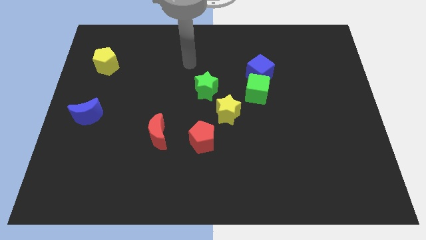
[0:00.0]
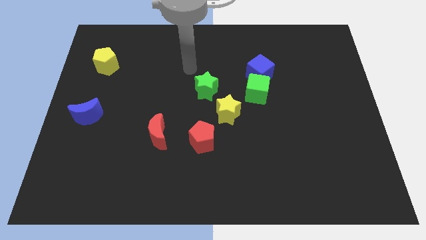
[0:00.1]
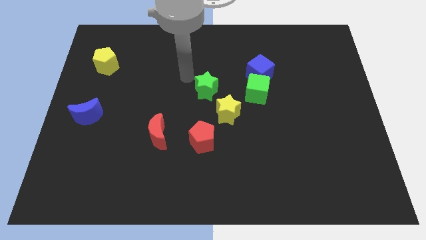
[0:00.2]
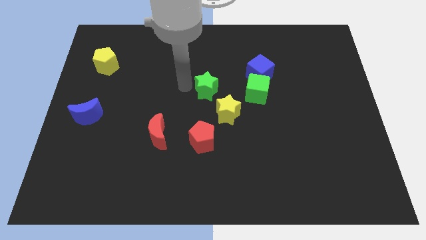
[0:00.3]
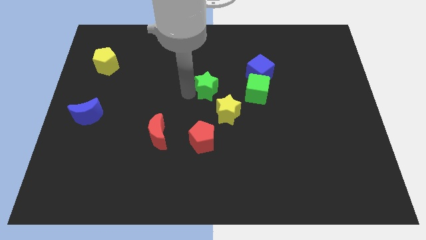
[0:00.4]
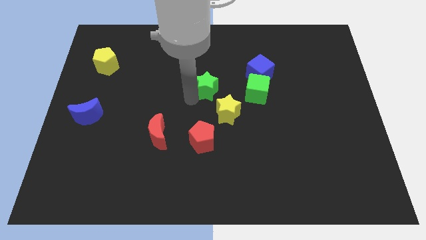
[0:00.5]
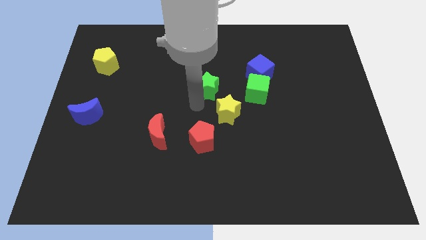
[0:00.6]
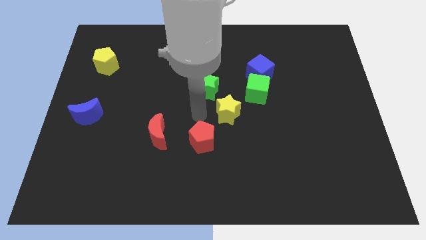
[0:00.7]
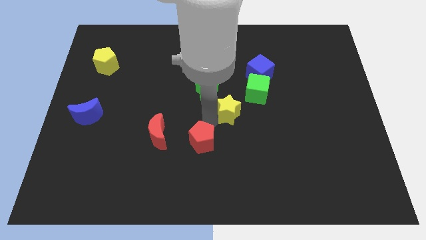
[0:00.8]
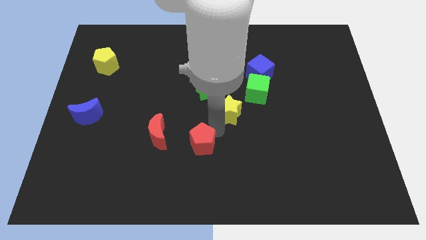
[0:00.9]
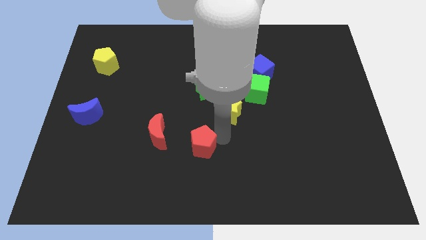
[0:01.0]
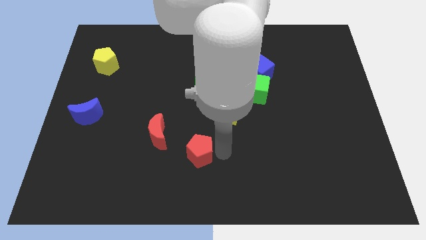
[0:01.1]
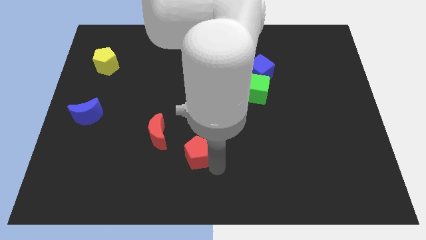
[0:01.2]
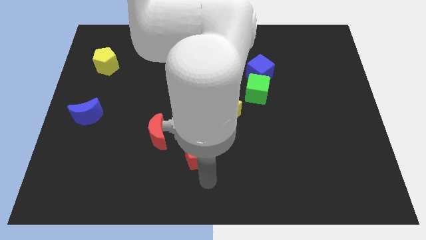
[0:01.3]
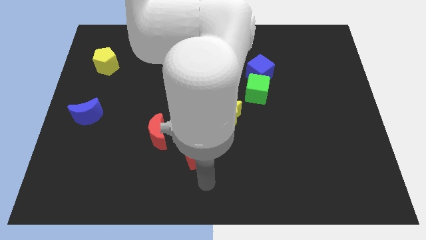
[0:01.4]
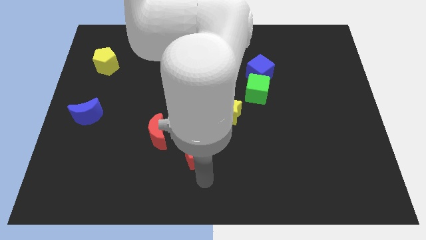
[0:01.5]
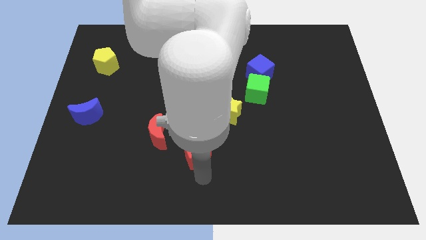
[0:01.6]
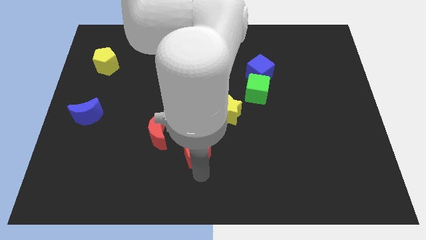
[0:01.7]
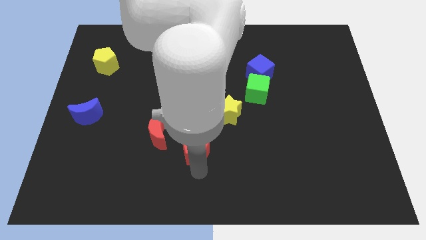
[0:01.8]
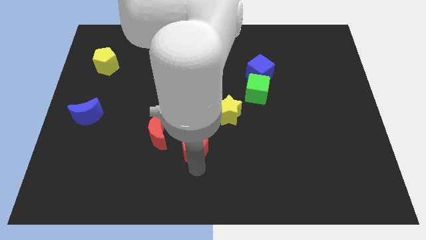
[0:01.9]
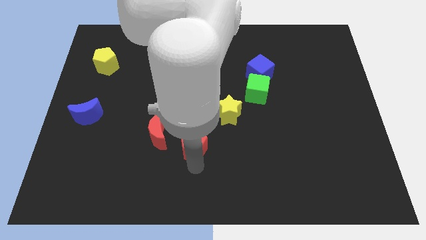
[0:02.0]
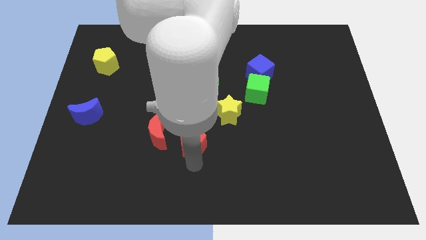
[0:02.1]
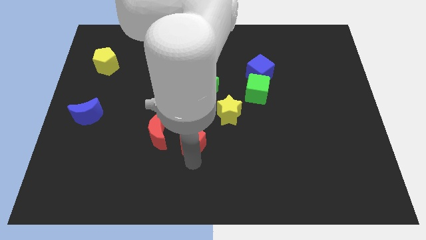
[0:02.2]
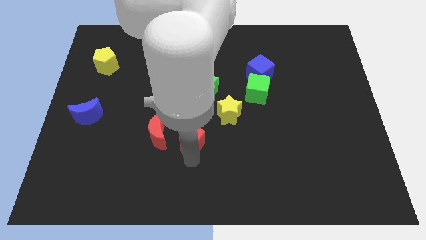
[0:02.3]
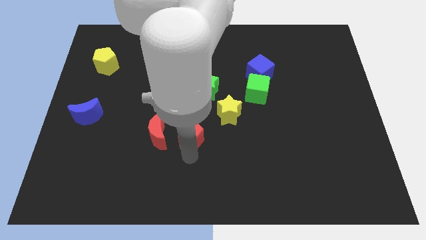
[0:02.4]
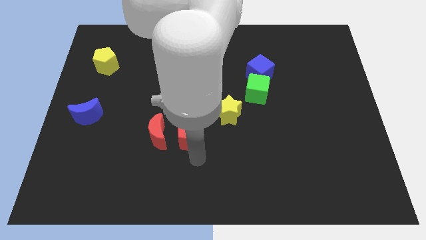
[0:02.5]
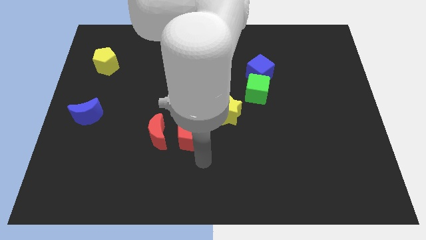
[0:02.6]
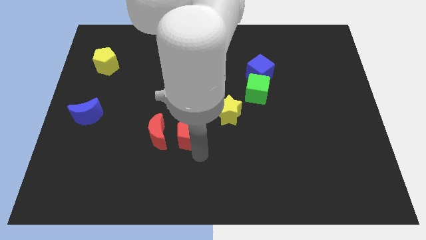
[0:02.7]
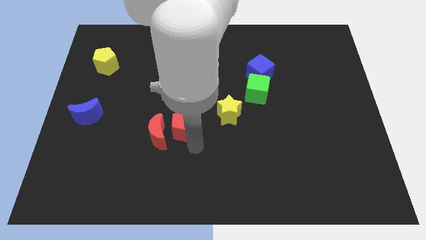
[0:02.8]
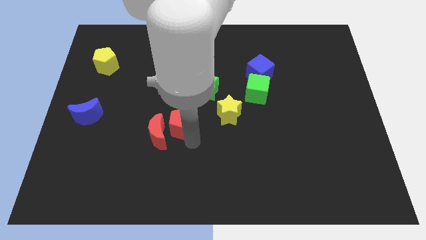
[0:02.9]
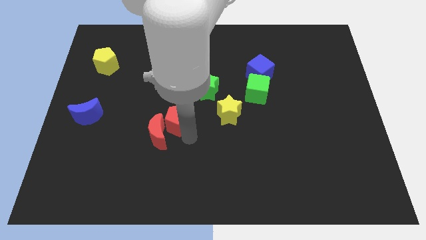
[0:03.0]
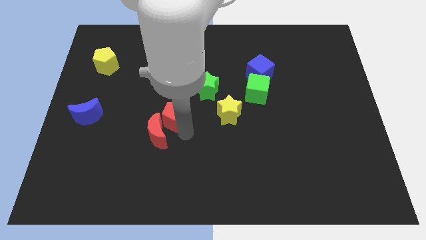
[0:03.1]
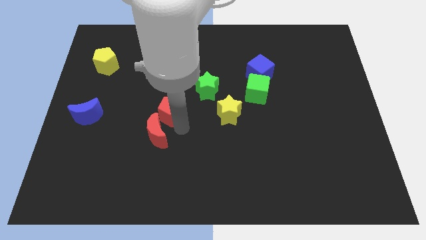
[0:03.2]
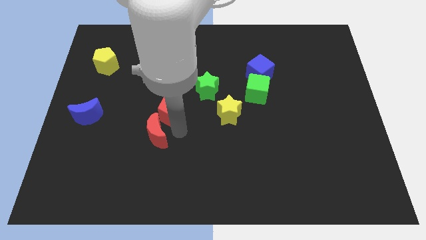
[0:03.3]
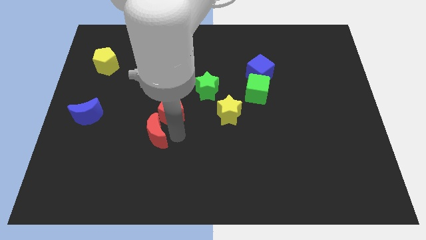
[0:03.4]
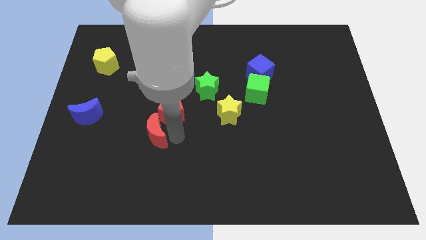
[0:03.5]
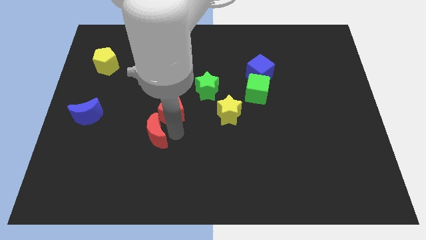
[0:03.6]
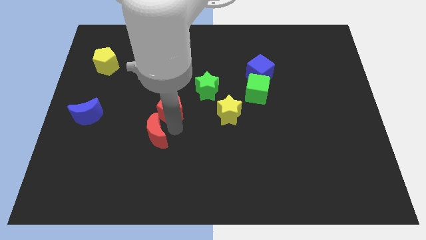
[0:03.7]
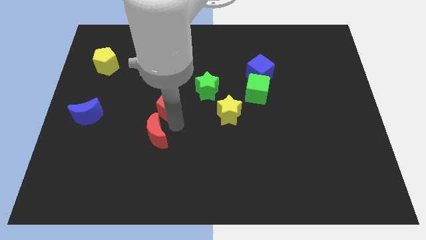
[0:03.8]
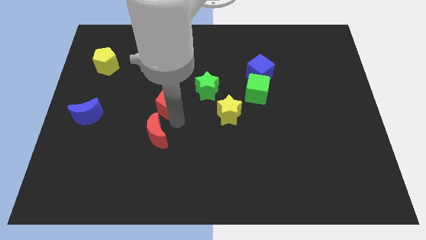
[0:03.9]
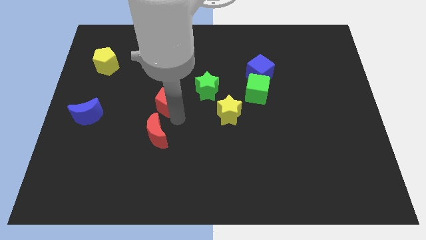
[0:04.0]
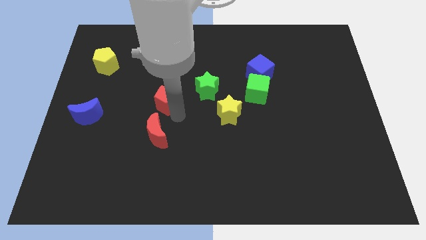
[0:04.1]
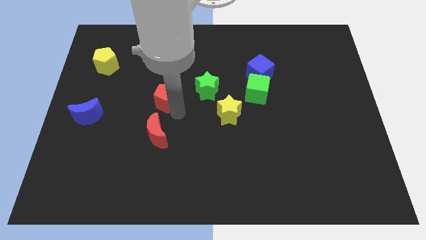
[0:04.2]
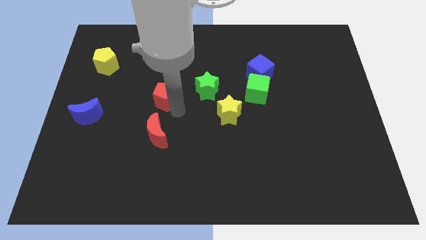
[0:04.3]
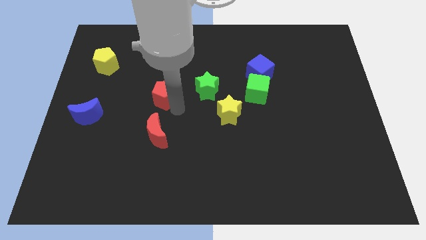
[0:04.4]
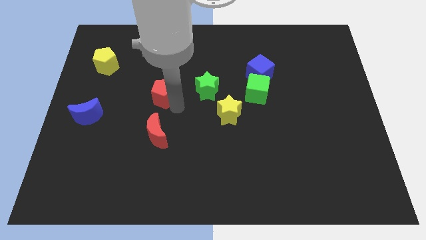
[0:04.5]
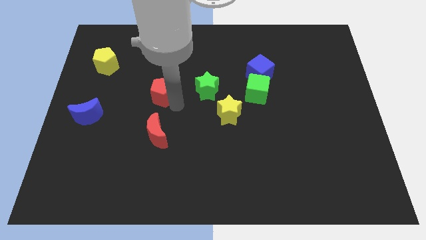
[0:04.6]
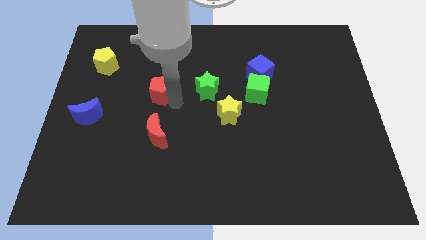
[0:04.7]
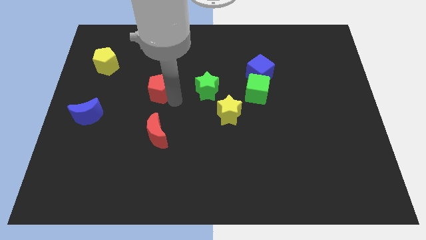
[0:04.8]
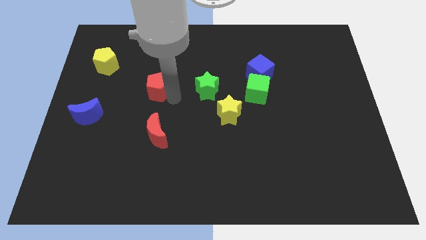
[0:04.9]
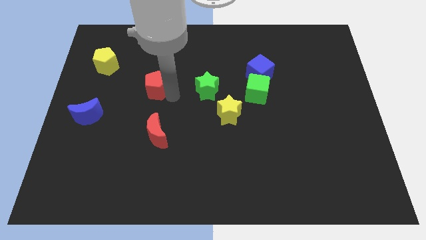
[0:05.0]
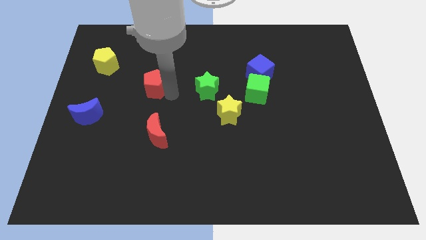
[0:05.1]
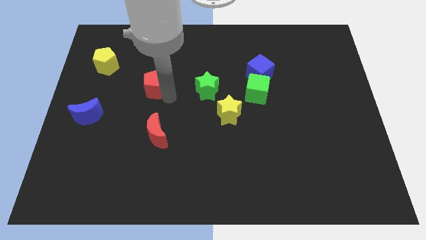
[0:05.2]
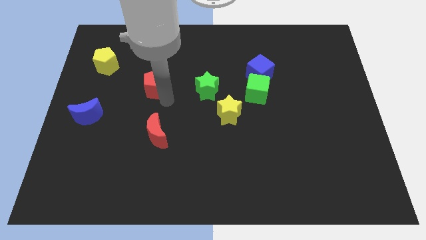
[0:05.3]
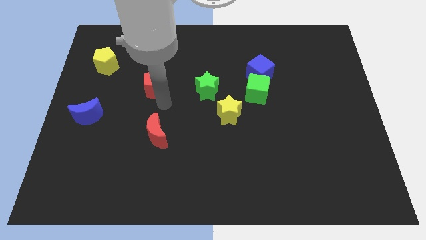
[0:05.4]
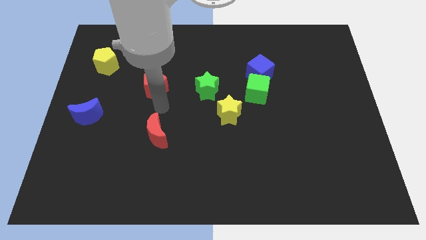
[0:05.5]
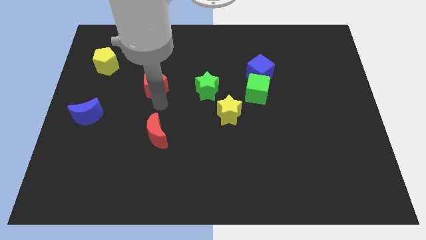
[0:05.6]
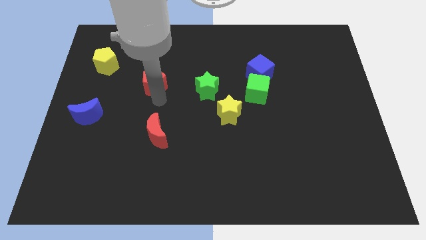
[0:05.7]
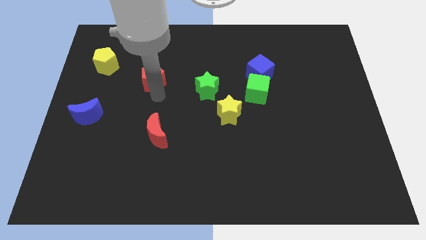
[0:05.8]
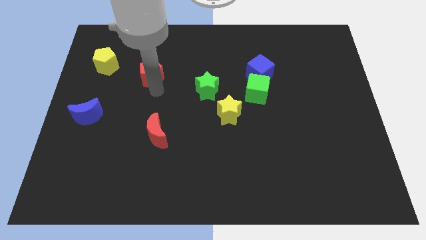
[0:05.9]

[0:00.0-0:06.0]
put the red pentagon right of the yellow pentagon

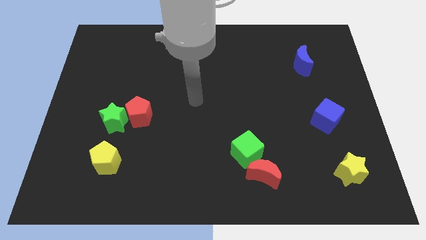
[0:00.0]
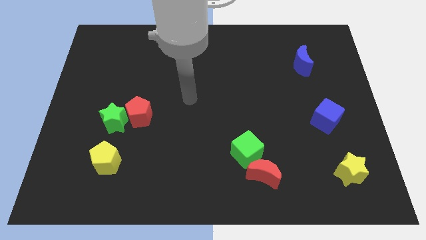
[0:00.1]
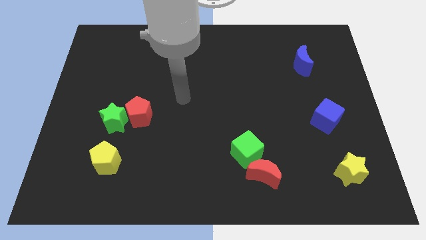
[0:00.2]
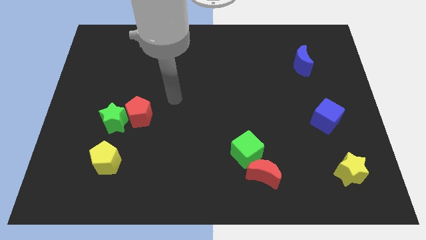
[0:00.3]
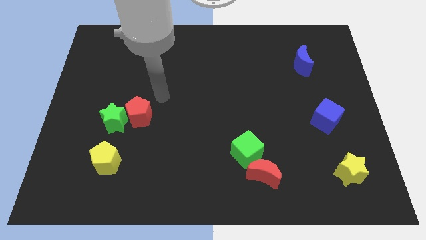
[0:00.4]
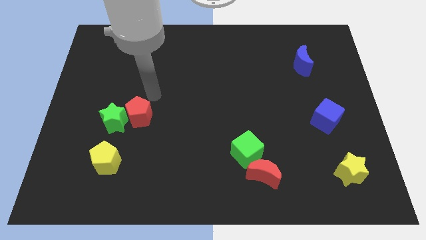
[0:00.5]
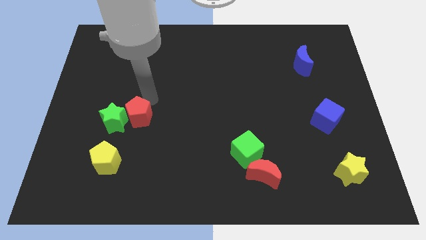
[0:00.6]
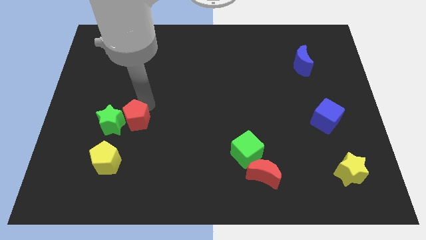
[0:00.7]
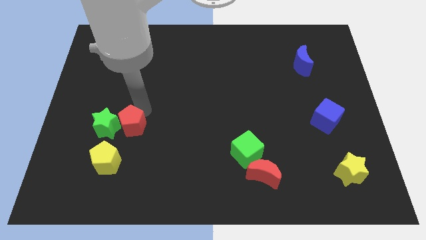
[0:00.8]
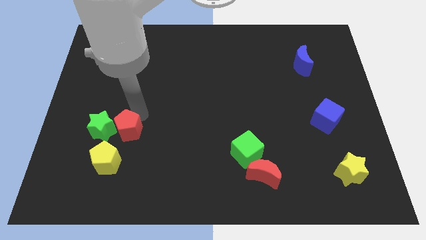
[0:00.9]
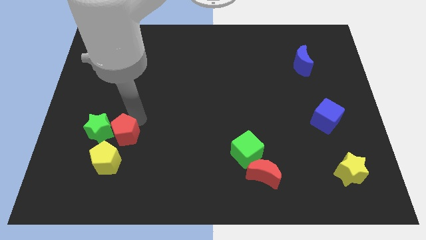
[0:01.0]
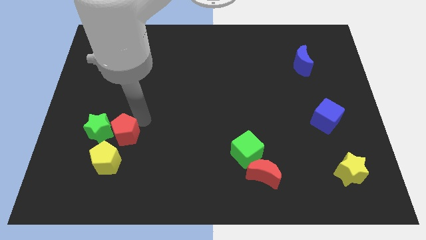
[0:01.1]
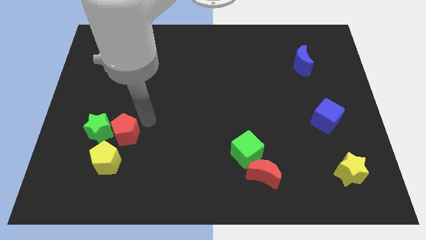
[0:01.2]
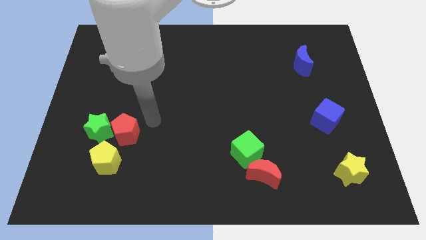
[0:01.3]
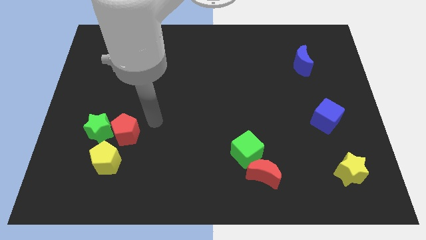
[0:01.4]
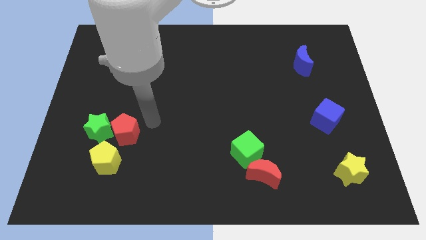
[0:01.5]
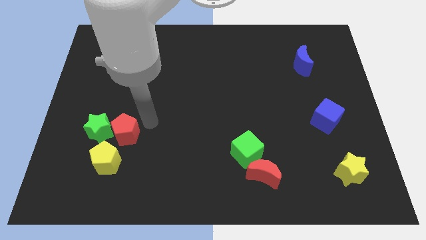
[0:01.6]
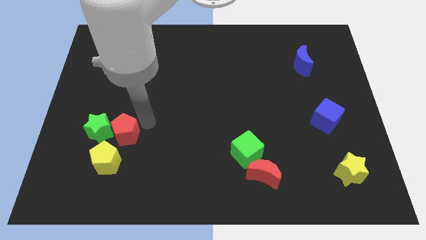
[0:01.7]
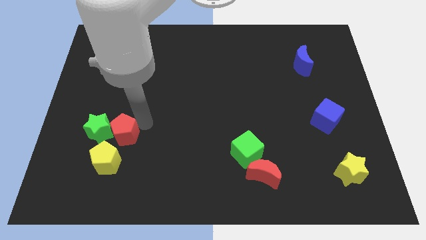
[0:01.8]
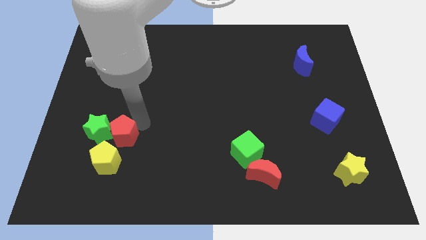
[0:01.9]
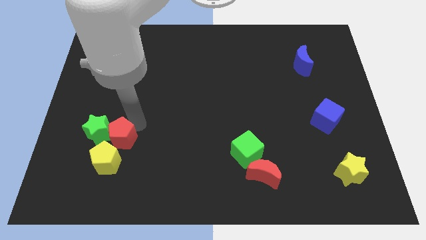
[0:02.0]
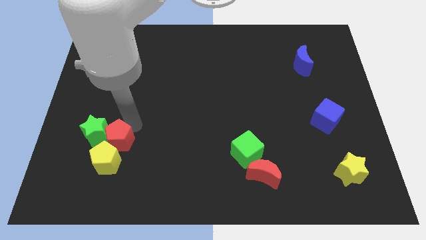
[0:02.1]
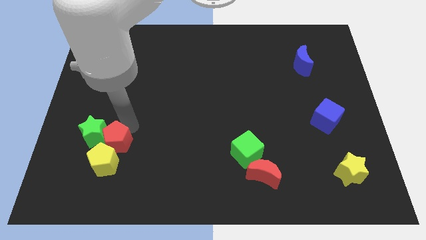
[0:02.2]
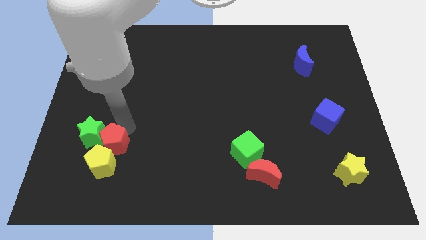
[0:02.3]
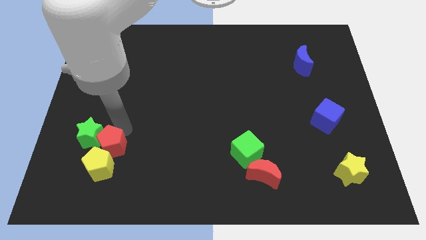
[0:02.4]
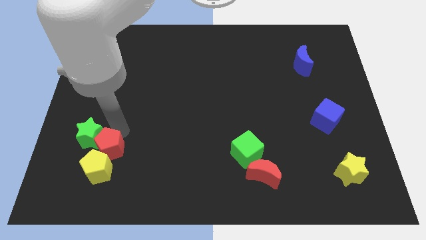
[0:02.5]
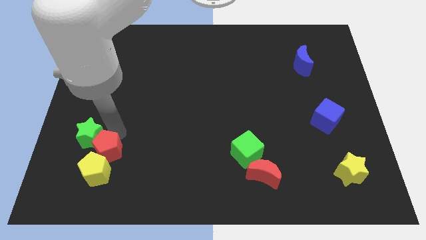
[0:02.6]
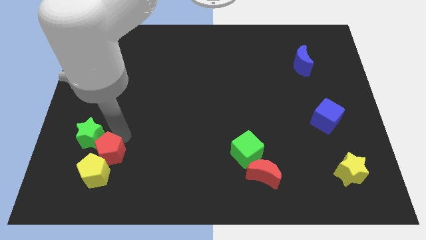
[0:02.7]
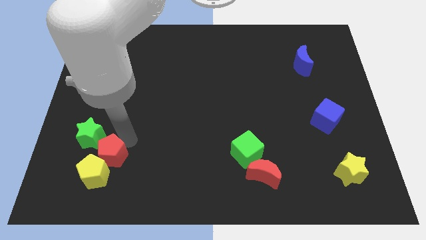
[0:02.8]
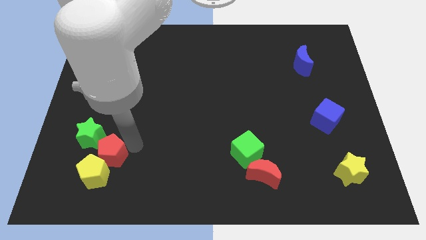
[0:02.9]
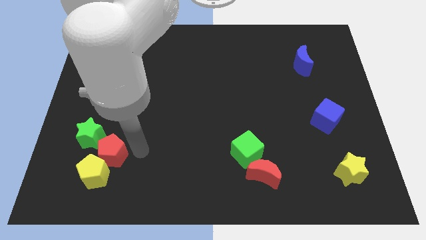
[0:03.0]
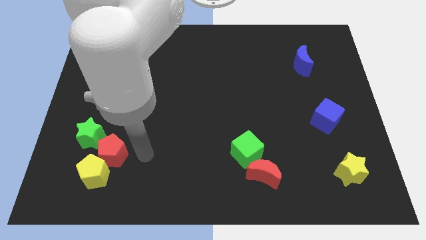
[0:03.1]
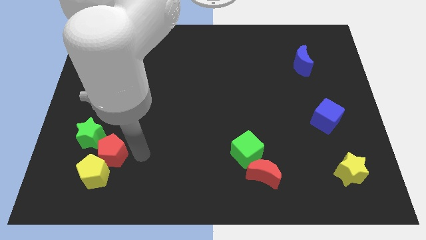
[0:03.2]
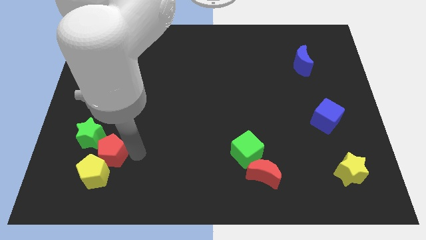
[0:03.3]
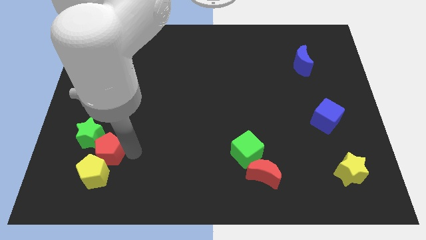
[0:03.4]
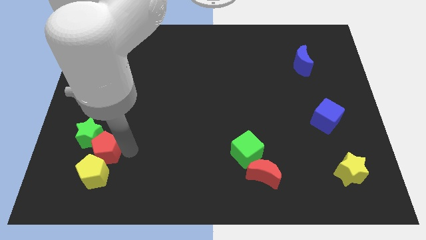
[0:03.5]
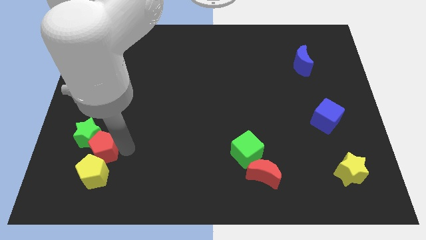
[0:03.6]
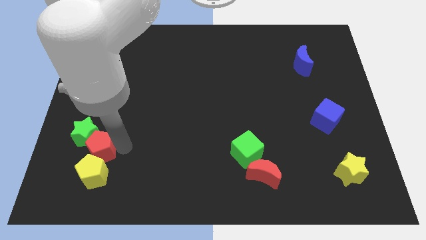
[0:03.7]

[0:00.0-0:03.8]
slide the red pentagon diagonally up and to the left of the yellow pentagon
